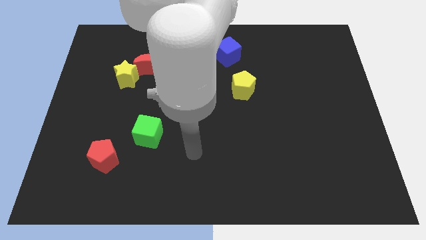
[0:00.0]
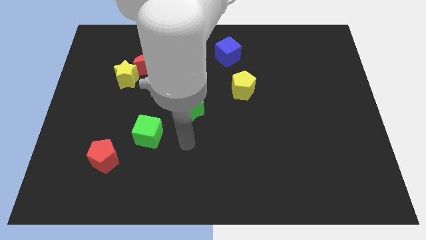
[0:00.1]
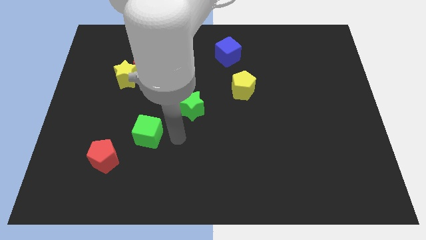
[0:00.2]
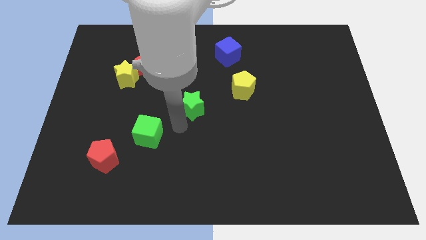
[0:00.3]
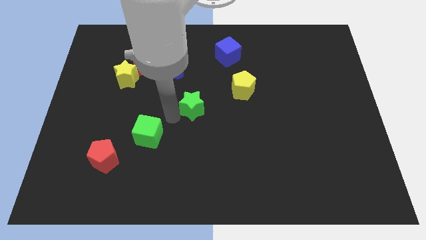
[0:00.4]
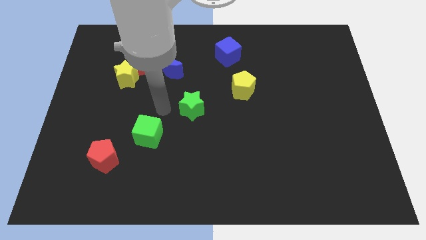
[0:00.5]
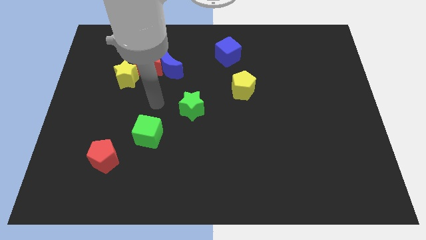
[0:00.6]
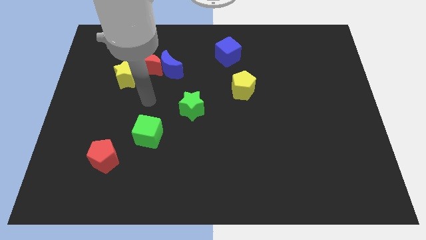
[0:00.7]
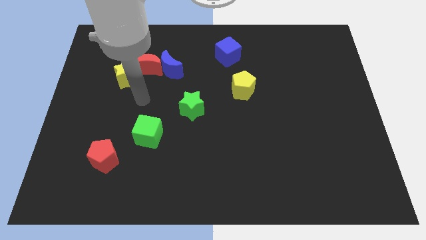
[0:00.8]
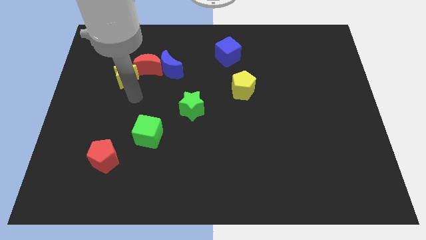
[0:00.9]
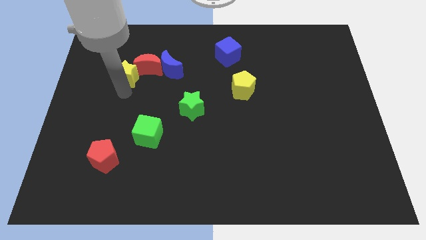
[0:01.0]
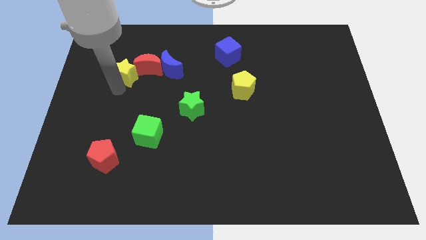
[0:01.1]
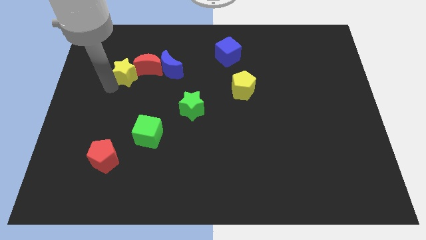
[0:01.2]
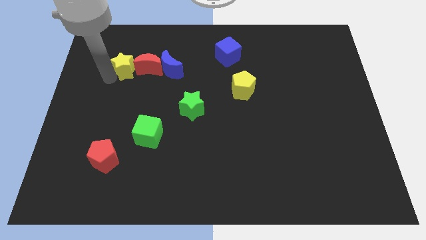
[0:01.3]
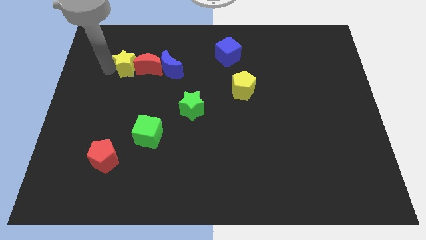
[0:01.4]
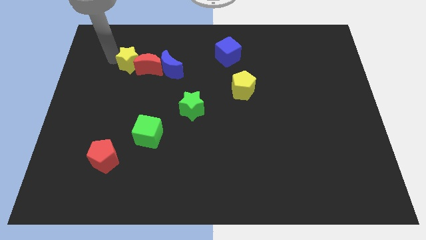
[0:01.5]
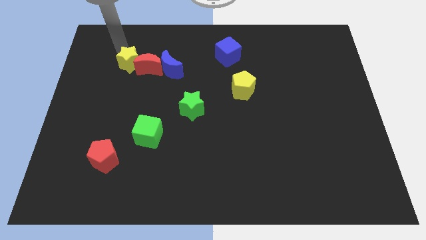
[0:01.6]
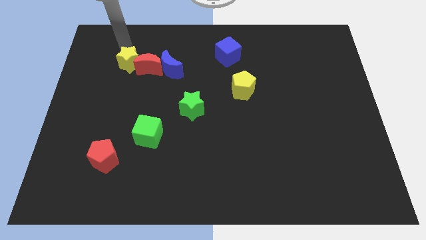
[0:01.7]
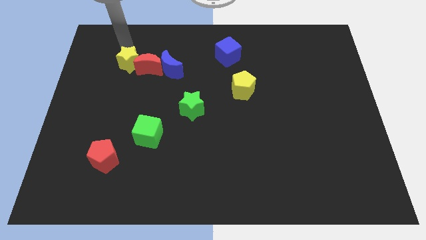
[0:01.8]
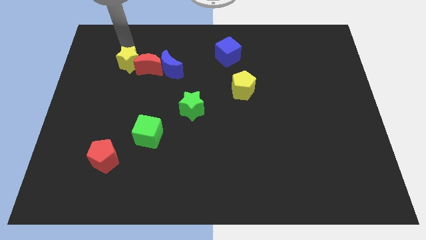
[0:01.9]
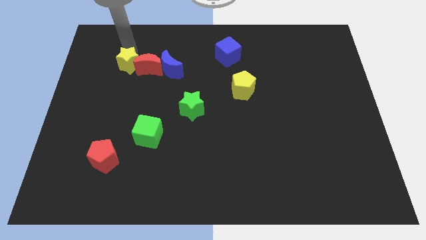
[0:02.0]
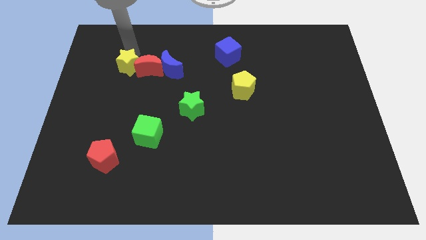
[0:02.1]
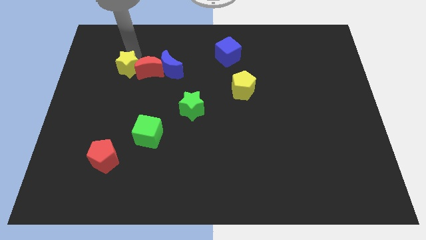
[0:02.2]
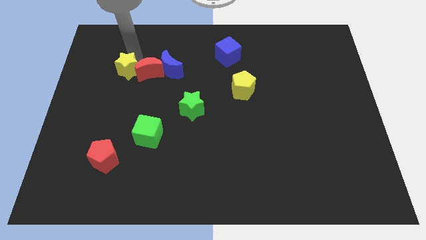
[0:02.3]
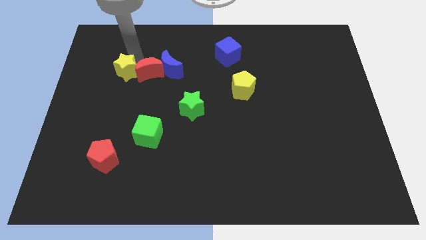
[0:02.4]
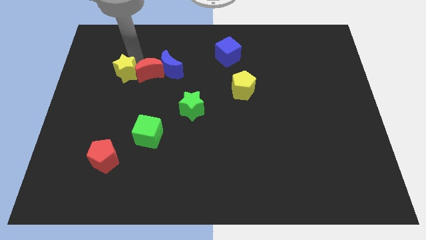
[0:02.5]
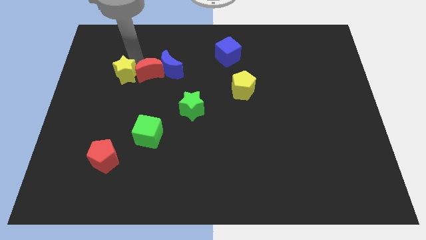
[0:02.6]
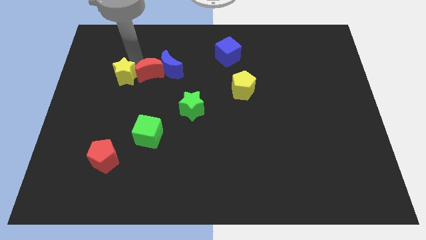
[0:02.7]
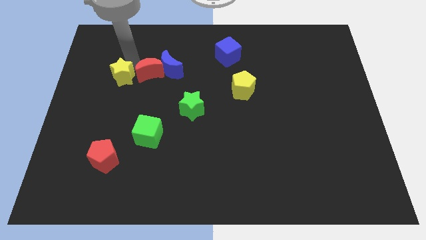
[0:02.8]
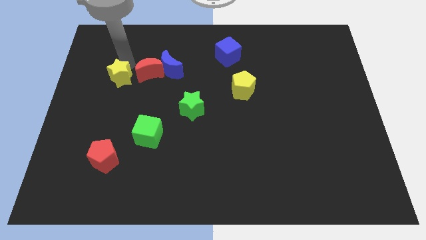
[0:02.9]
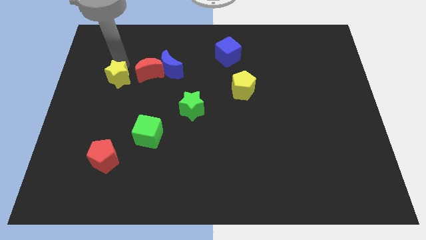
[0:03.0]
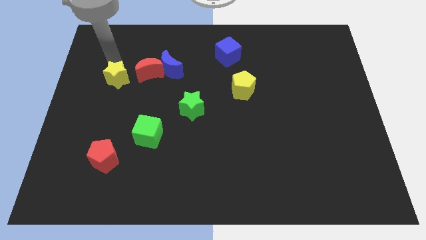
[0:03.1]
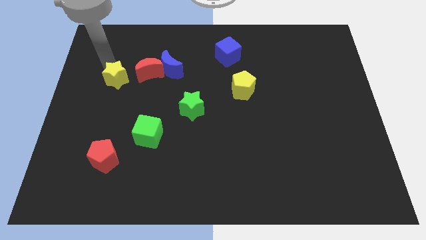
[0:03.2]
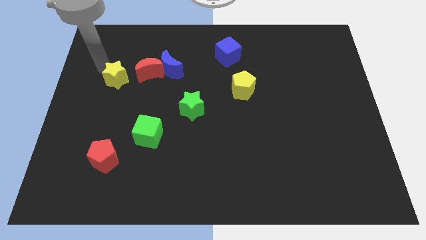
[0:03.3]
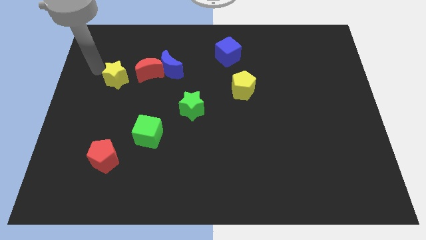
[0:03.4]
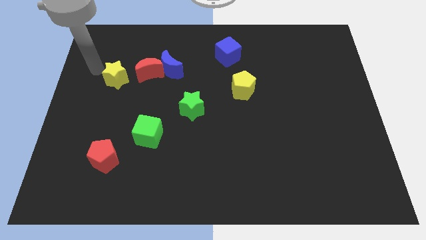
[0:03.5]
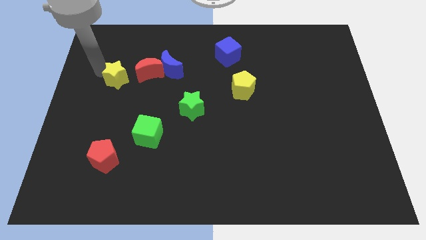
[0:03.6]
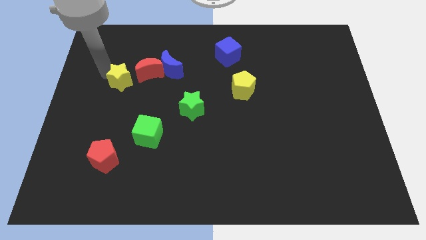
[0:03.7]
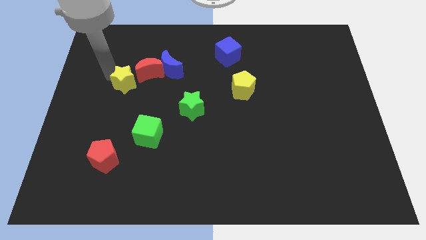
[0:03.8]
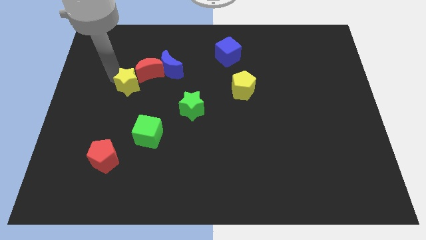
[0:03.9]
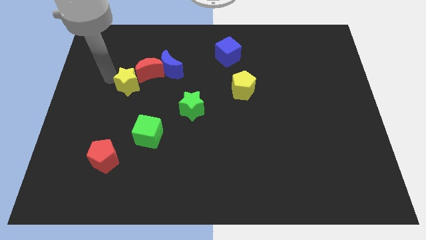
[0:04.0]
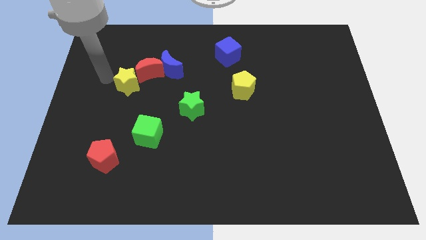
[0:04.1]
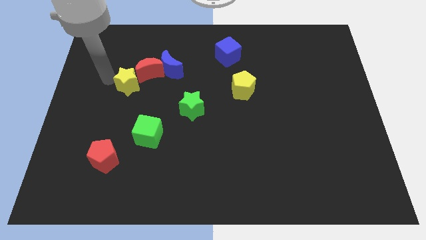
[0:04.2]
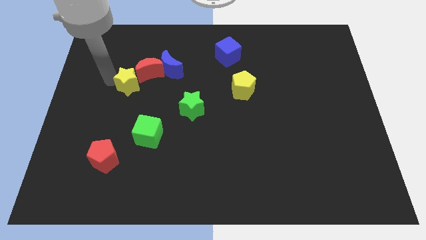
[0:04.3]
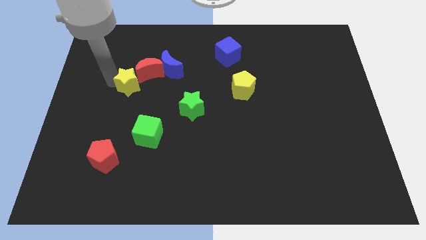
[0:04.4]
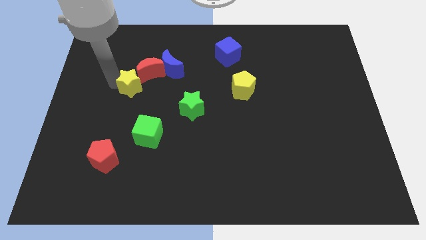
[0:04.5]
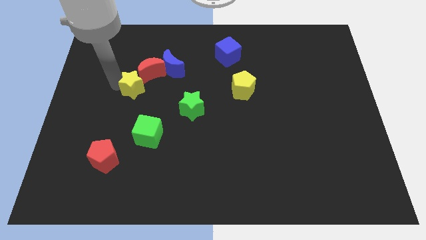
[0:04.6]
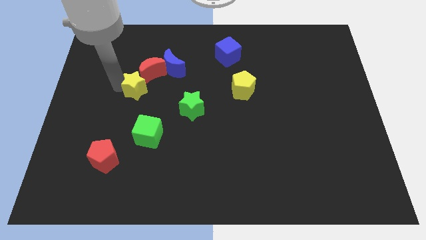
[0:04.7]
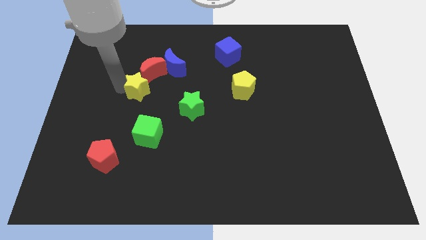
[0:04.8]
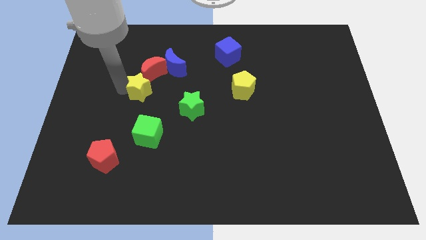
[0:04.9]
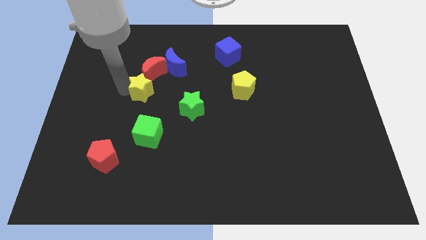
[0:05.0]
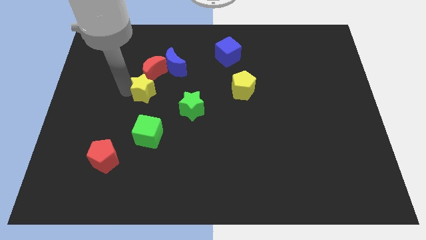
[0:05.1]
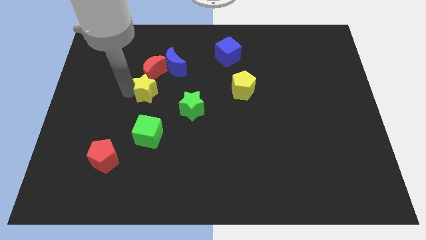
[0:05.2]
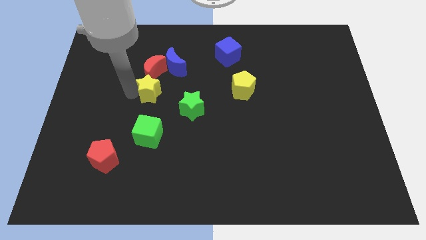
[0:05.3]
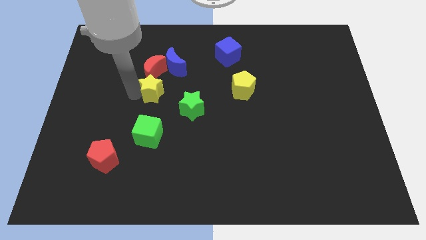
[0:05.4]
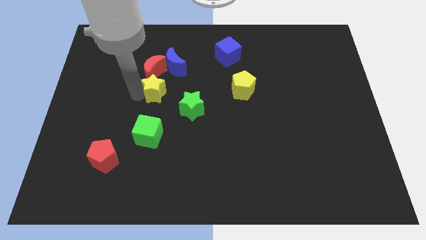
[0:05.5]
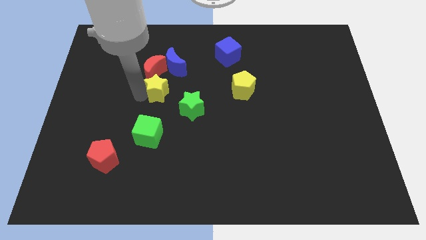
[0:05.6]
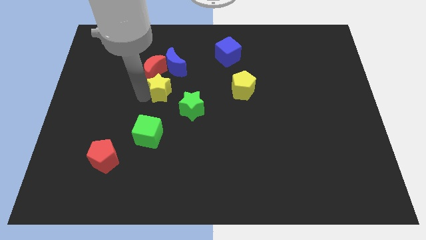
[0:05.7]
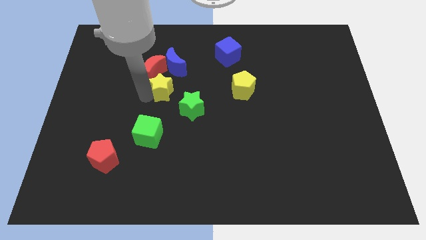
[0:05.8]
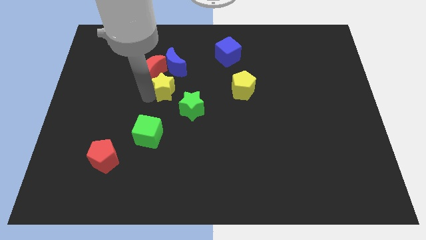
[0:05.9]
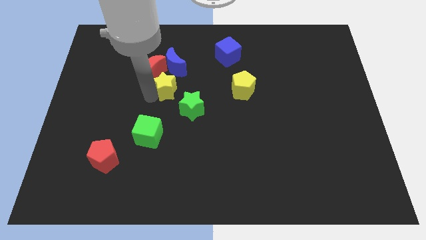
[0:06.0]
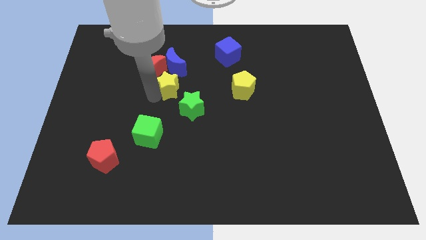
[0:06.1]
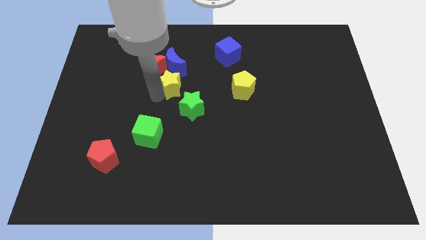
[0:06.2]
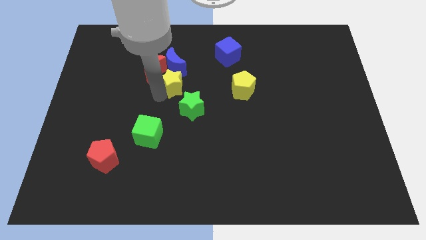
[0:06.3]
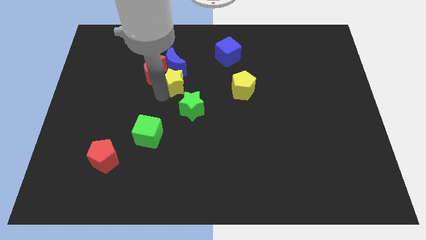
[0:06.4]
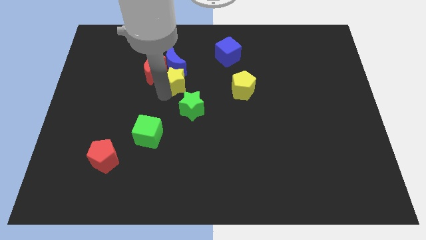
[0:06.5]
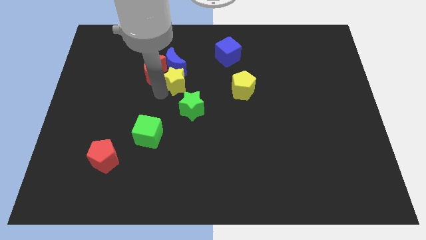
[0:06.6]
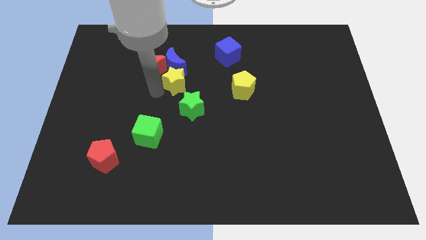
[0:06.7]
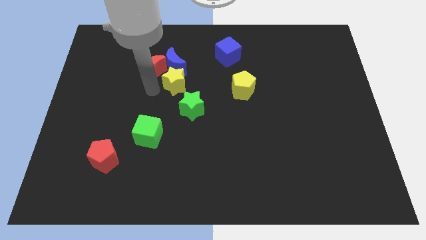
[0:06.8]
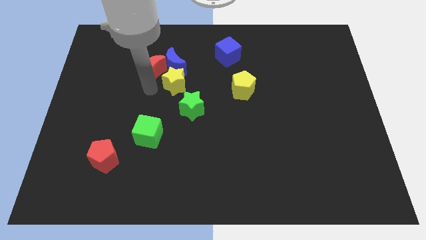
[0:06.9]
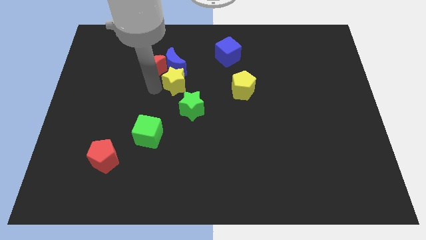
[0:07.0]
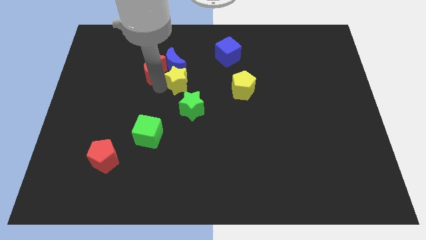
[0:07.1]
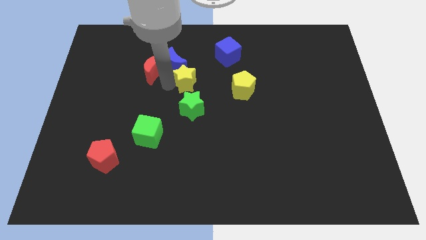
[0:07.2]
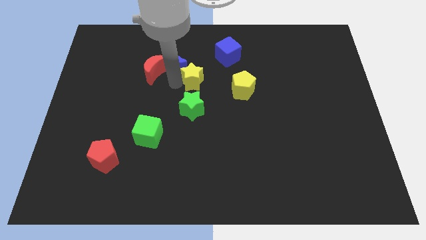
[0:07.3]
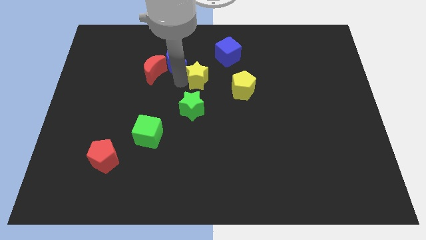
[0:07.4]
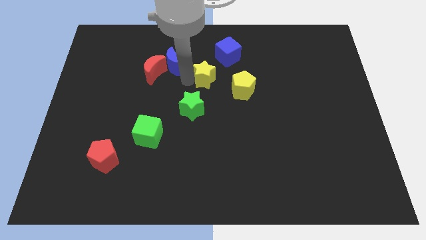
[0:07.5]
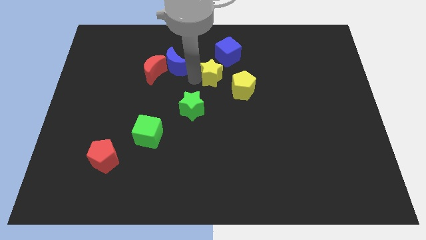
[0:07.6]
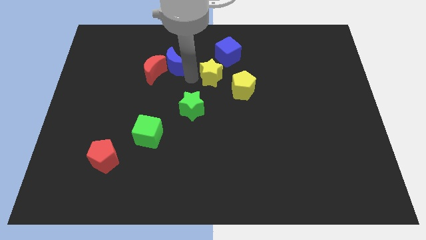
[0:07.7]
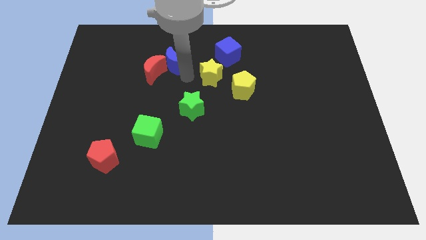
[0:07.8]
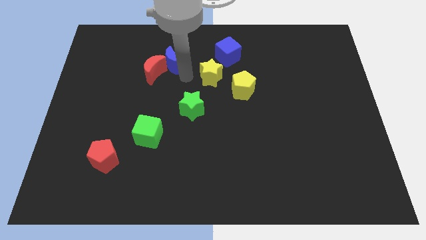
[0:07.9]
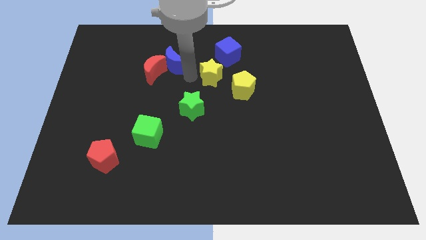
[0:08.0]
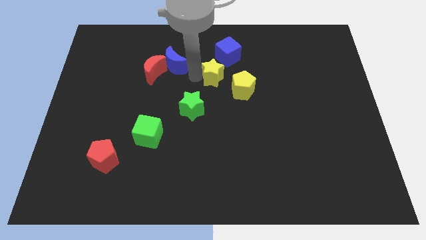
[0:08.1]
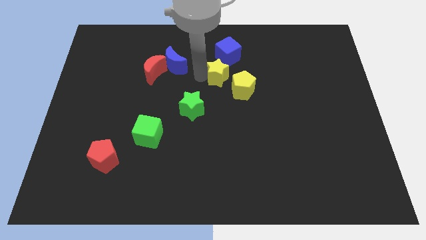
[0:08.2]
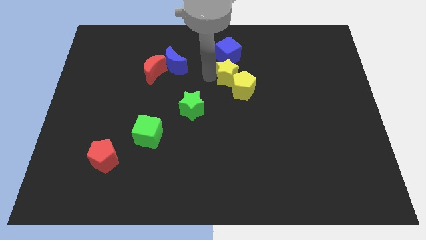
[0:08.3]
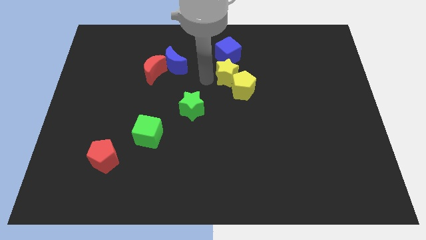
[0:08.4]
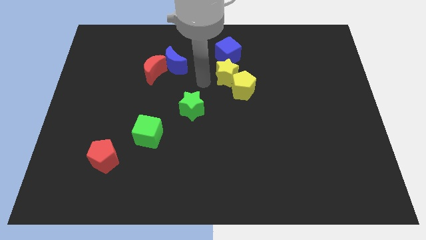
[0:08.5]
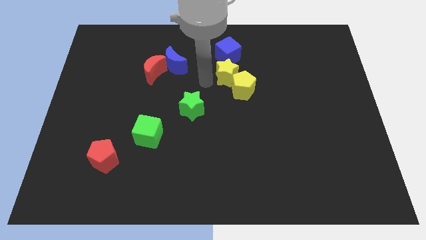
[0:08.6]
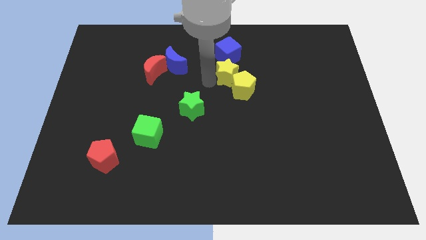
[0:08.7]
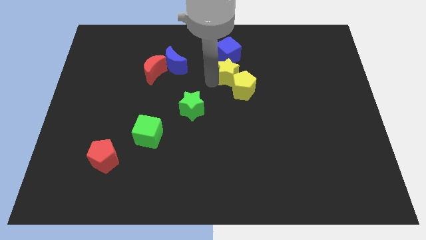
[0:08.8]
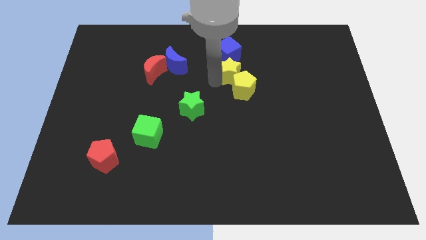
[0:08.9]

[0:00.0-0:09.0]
slide the yellow star to the bottom right of the blue cube
